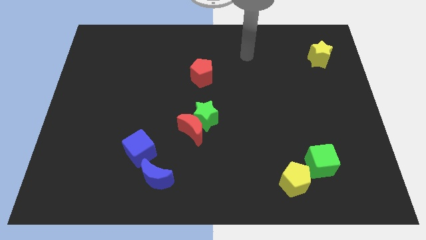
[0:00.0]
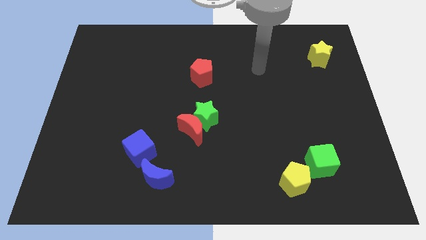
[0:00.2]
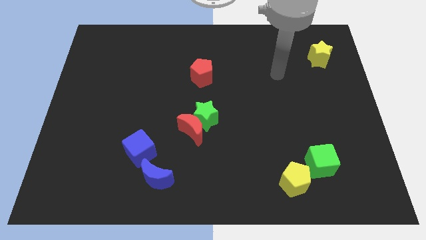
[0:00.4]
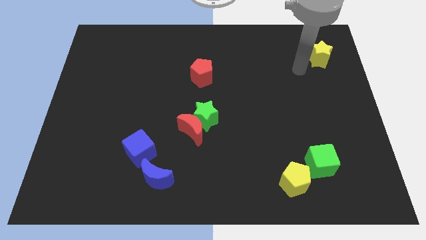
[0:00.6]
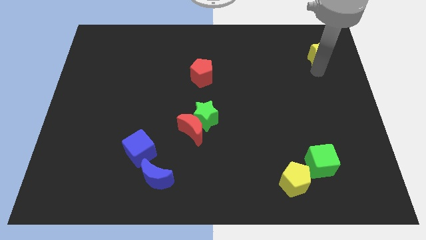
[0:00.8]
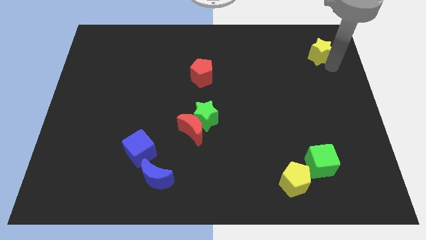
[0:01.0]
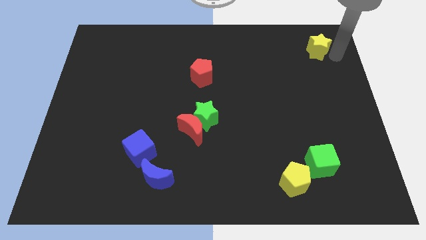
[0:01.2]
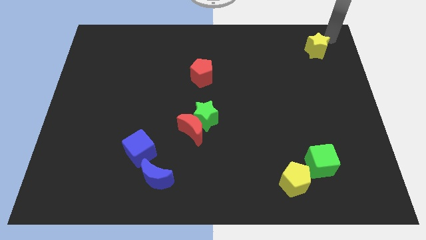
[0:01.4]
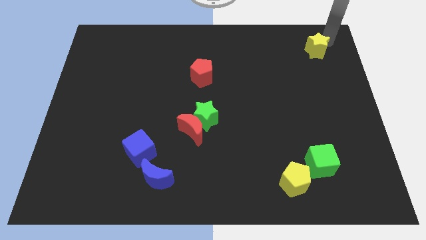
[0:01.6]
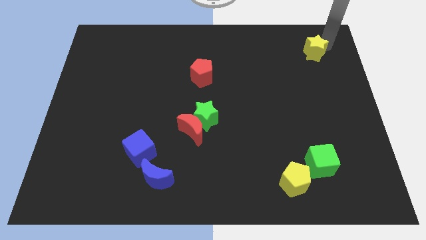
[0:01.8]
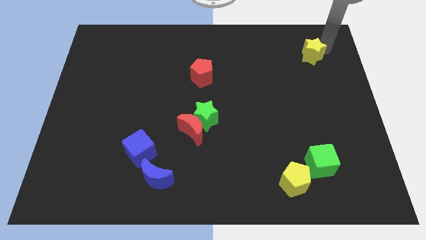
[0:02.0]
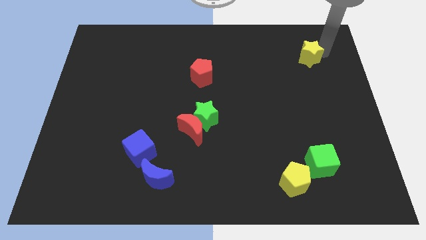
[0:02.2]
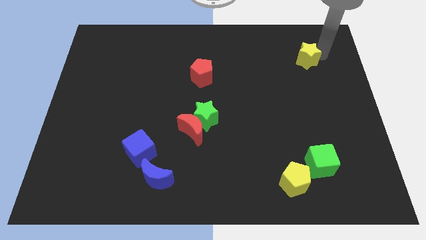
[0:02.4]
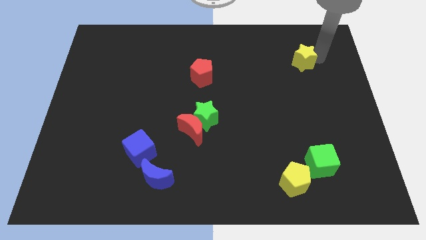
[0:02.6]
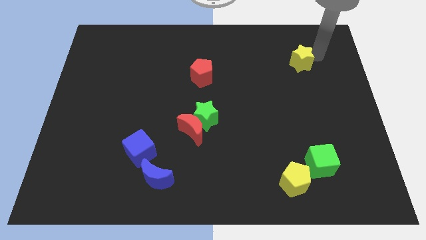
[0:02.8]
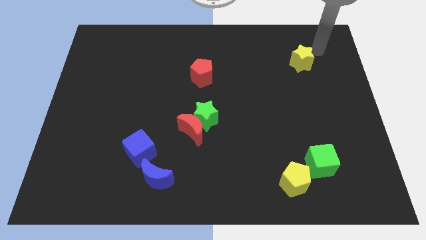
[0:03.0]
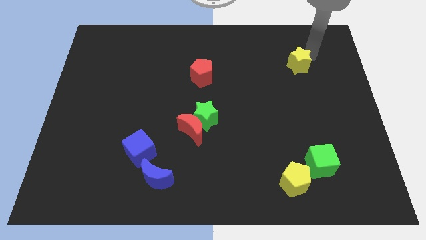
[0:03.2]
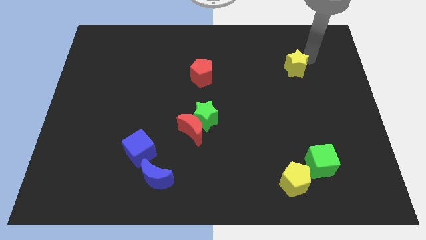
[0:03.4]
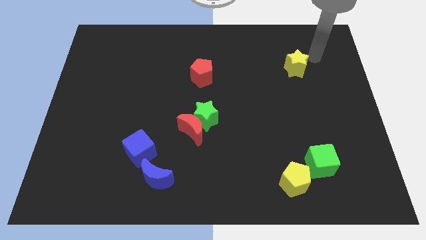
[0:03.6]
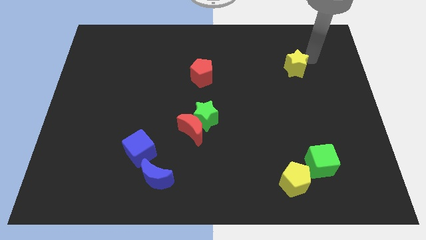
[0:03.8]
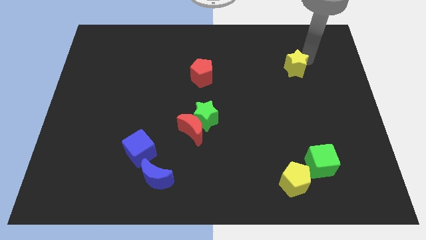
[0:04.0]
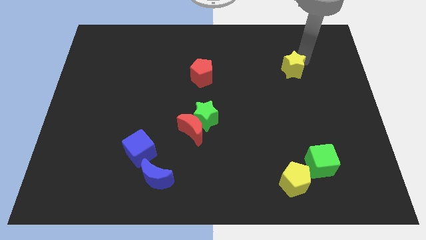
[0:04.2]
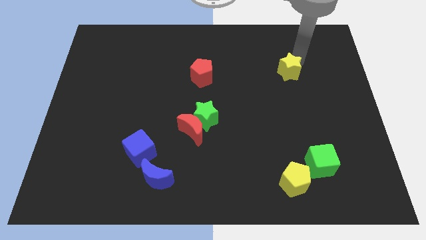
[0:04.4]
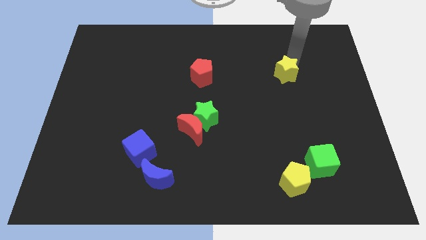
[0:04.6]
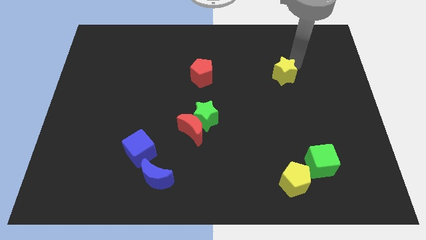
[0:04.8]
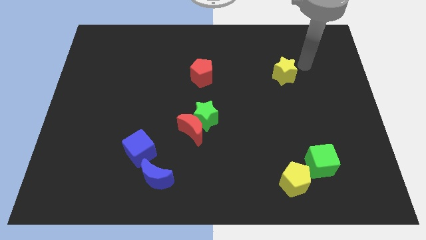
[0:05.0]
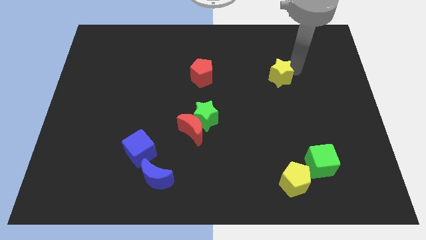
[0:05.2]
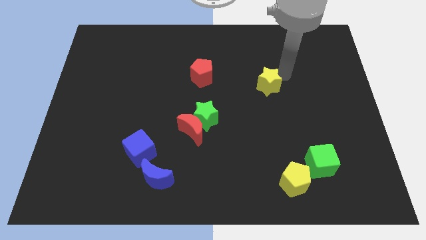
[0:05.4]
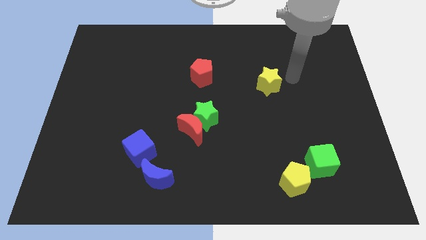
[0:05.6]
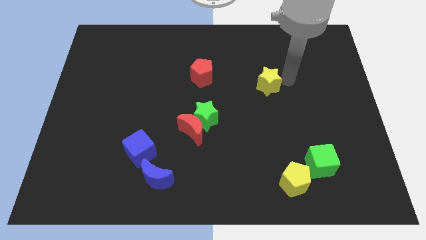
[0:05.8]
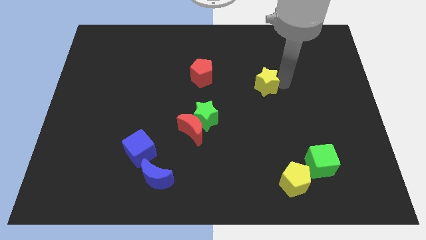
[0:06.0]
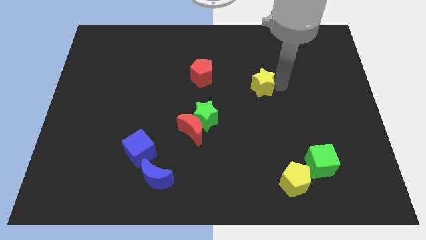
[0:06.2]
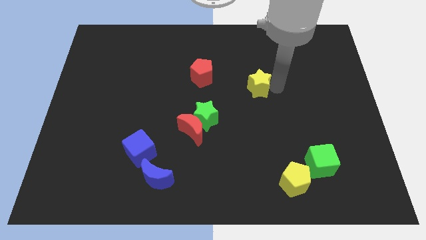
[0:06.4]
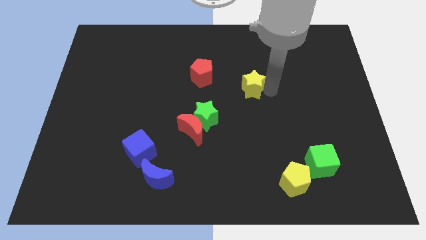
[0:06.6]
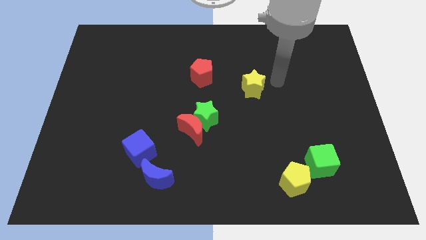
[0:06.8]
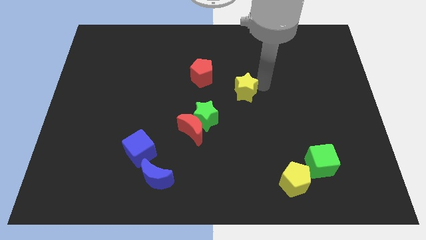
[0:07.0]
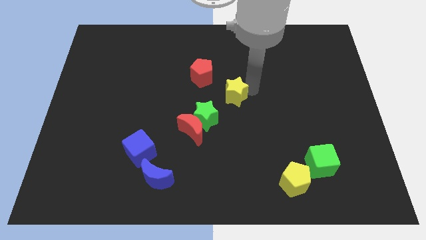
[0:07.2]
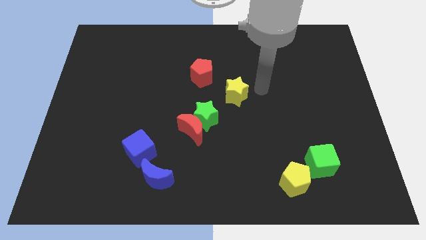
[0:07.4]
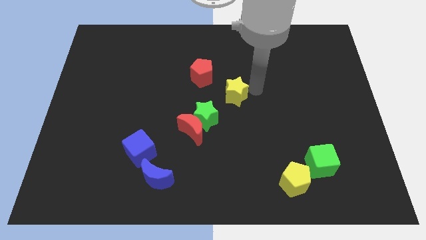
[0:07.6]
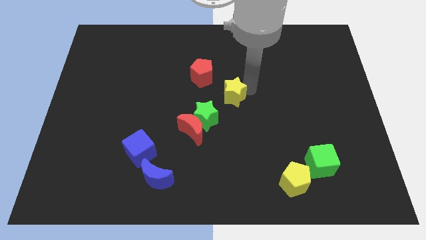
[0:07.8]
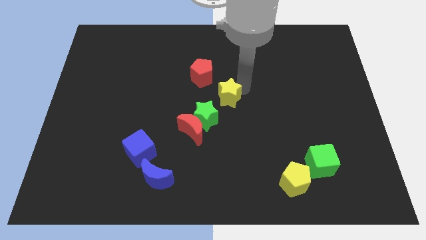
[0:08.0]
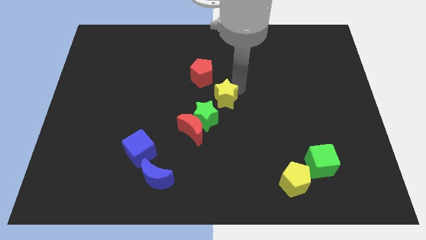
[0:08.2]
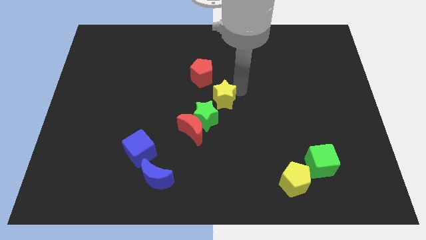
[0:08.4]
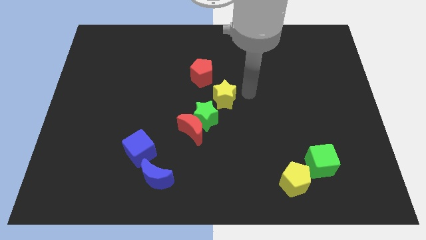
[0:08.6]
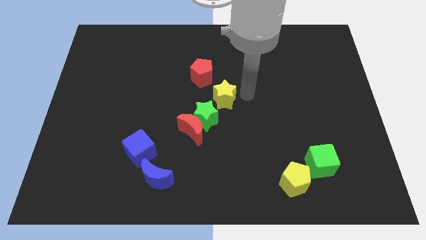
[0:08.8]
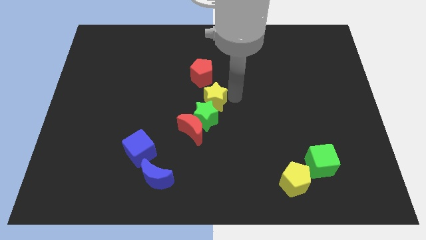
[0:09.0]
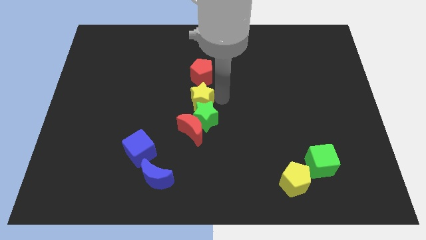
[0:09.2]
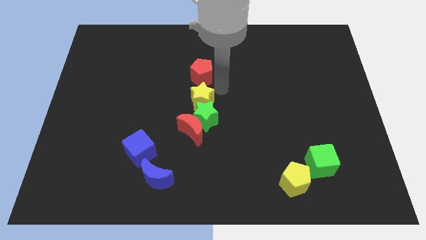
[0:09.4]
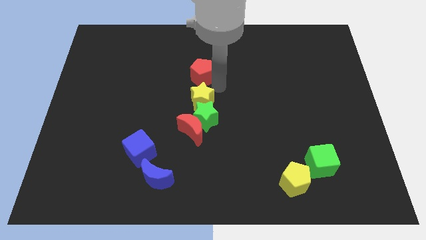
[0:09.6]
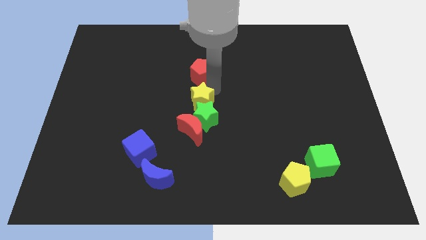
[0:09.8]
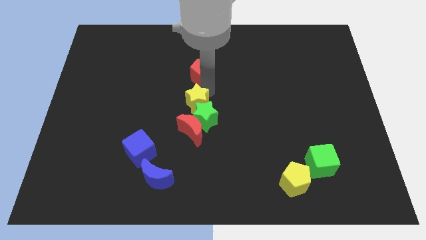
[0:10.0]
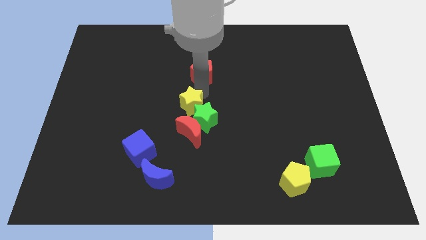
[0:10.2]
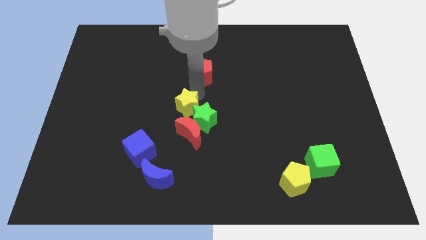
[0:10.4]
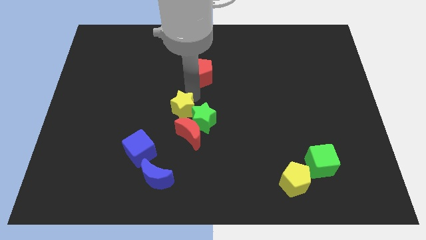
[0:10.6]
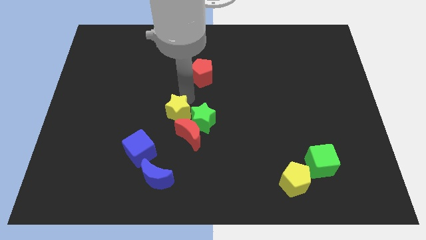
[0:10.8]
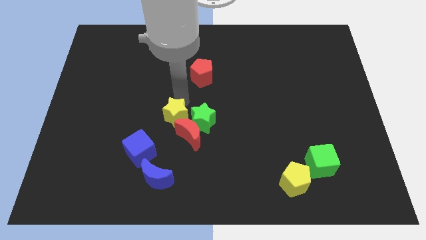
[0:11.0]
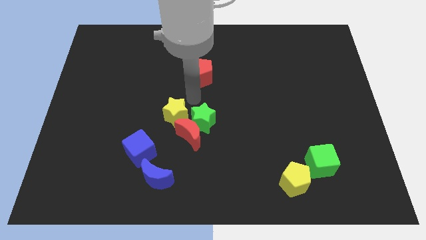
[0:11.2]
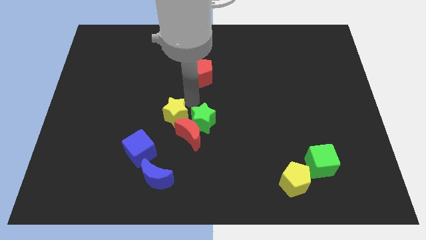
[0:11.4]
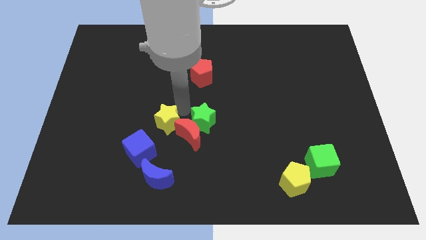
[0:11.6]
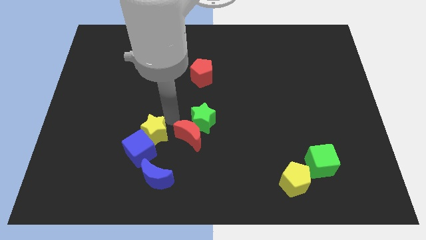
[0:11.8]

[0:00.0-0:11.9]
slide the yellow star towards the blue cube
